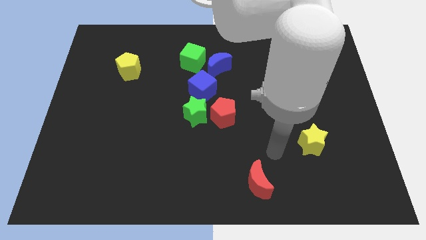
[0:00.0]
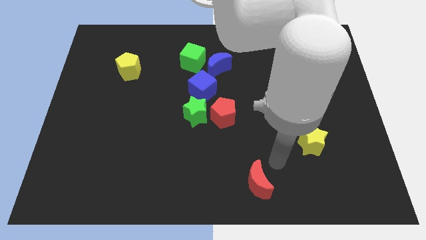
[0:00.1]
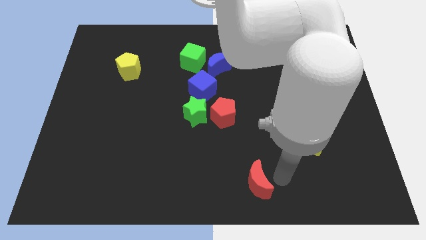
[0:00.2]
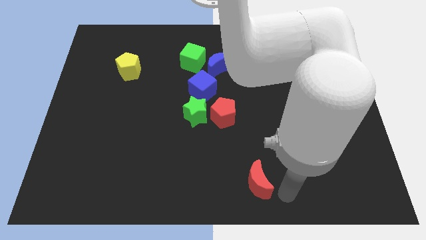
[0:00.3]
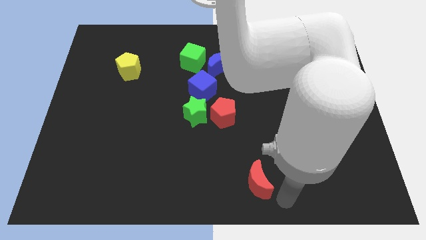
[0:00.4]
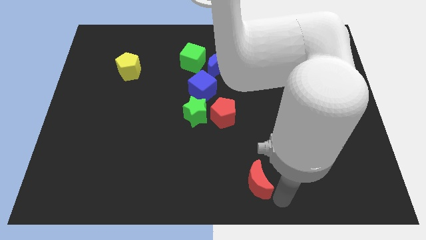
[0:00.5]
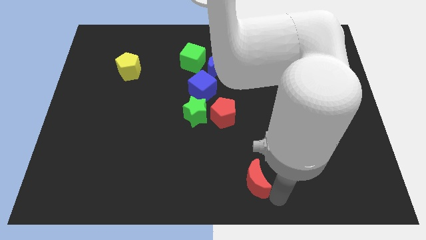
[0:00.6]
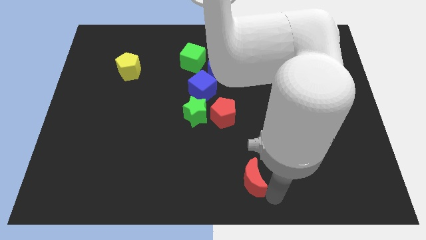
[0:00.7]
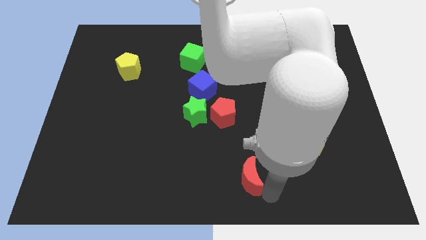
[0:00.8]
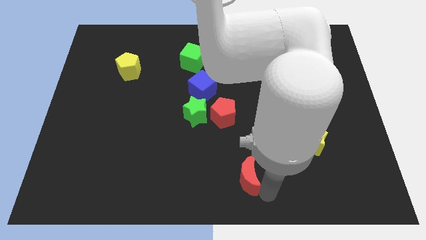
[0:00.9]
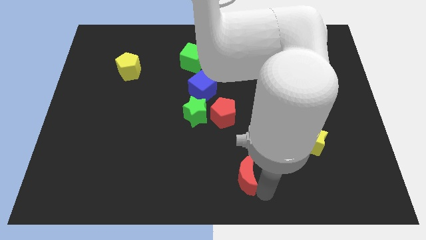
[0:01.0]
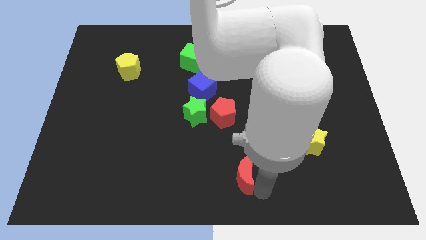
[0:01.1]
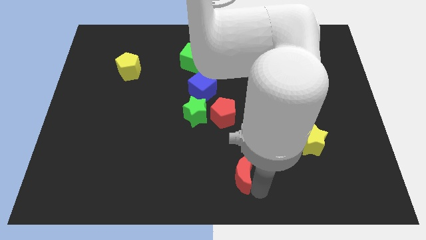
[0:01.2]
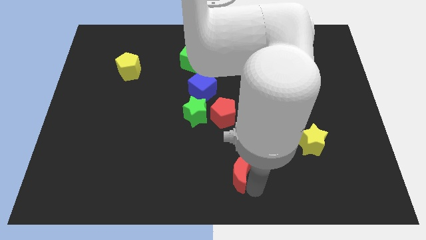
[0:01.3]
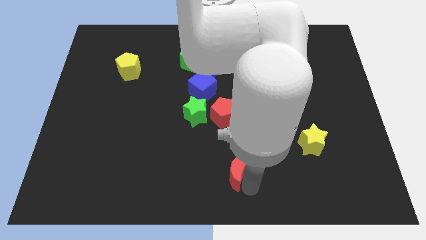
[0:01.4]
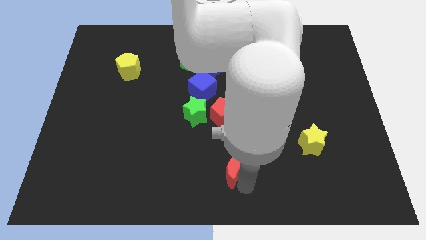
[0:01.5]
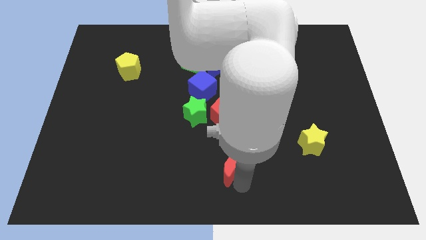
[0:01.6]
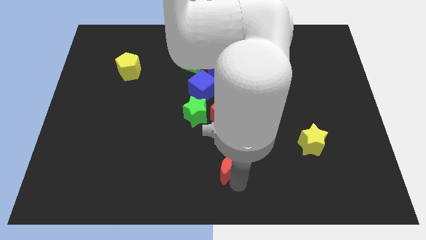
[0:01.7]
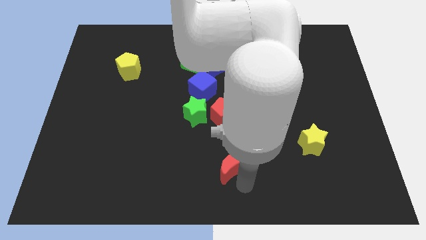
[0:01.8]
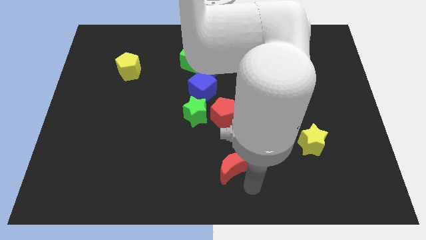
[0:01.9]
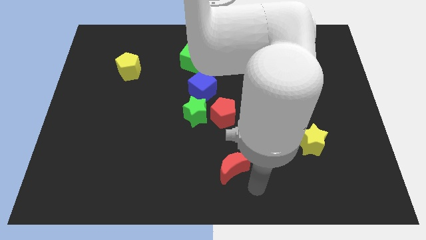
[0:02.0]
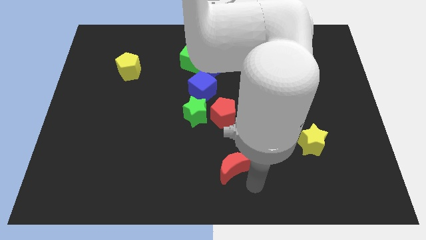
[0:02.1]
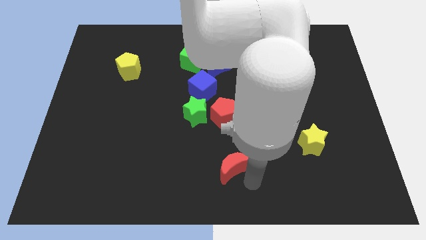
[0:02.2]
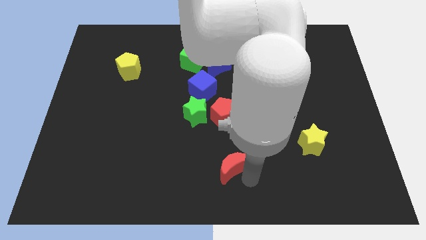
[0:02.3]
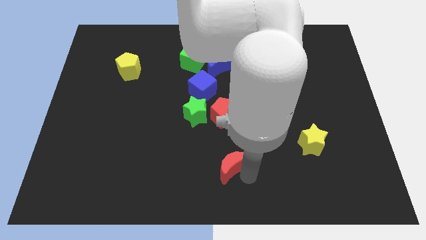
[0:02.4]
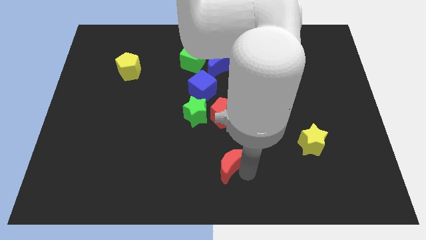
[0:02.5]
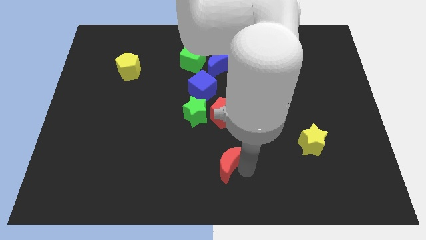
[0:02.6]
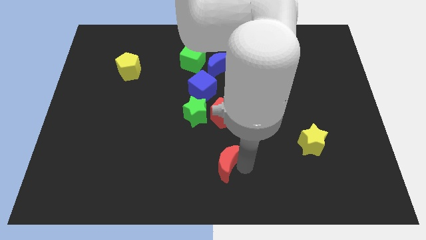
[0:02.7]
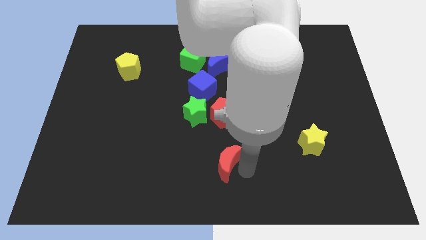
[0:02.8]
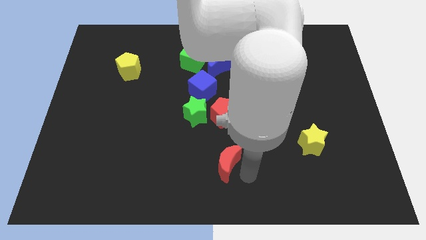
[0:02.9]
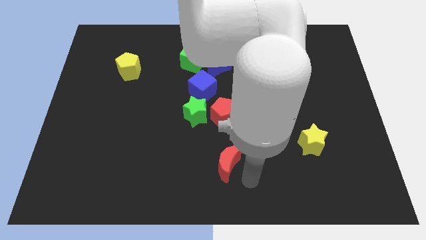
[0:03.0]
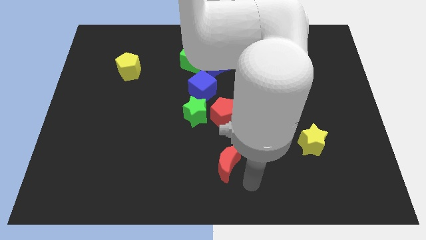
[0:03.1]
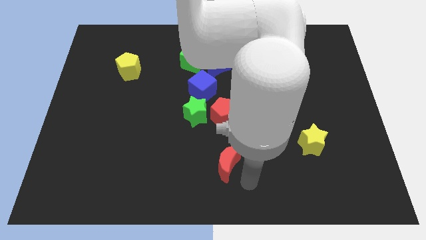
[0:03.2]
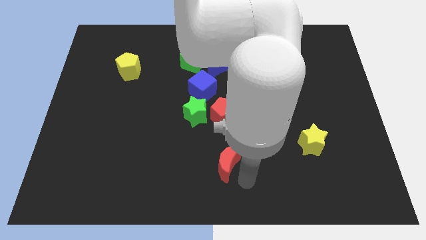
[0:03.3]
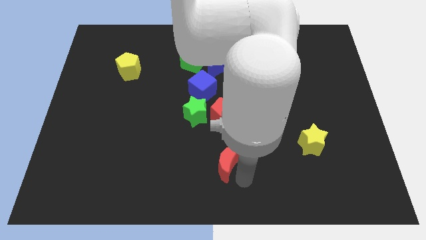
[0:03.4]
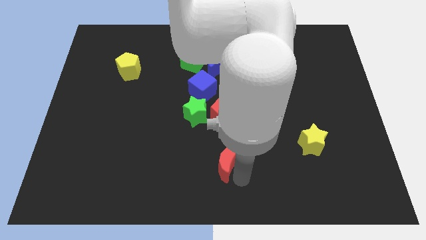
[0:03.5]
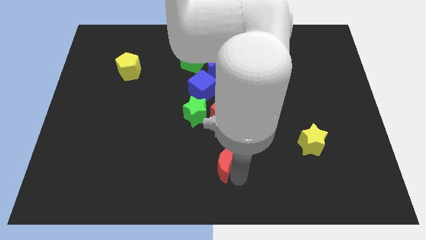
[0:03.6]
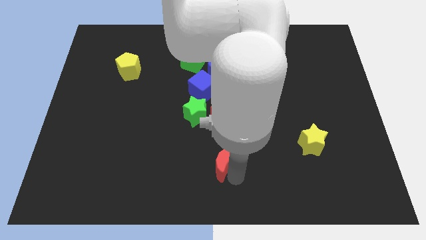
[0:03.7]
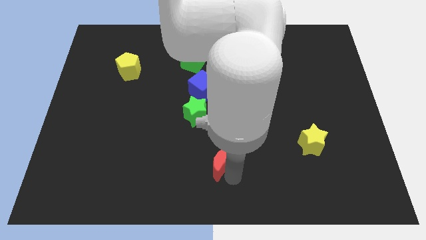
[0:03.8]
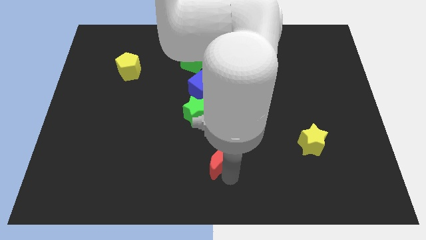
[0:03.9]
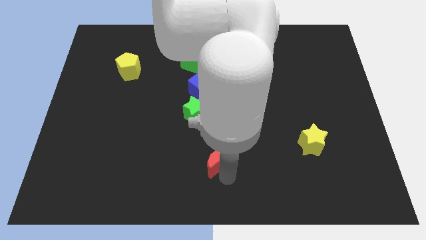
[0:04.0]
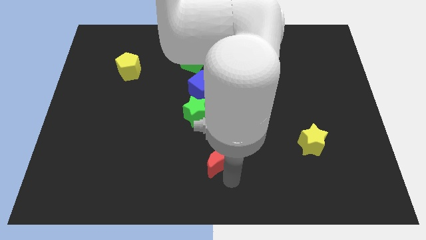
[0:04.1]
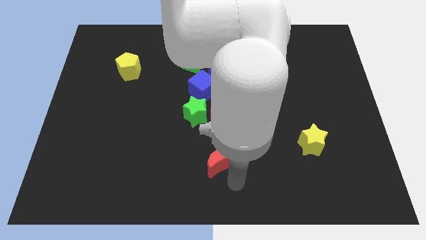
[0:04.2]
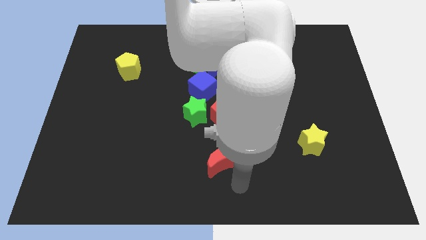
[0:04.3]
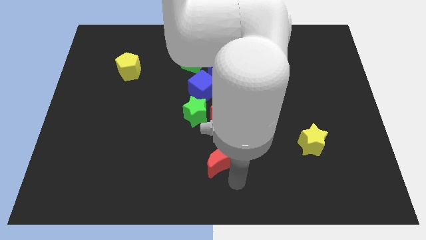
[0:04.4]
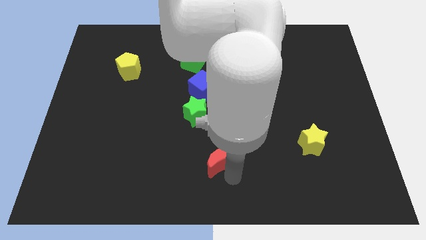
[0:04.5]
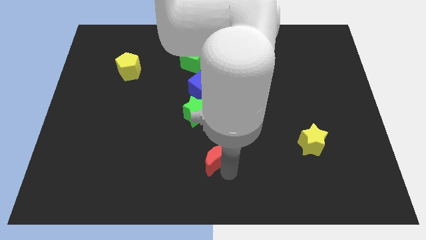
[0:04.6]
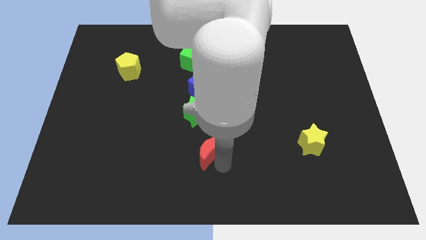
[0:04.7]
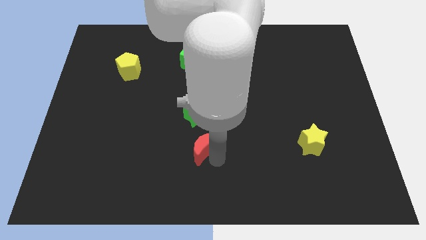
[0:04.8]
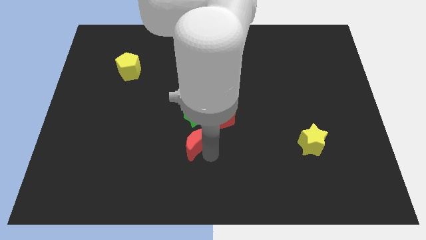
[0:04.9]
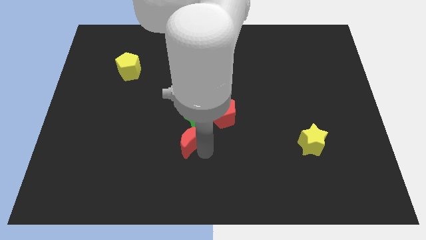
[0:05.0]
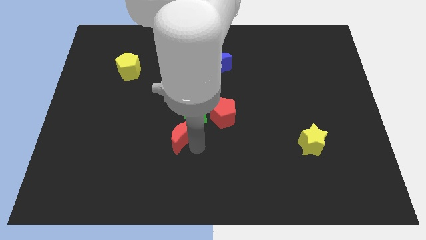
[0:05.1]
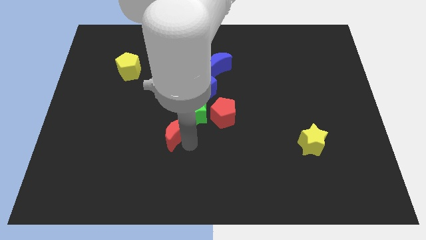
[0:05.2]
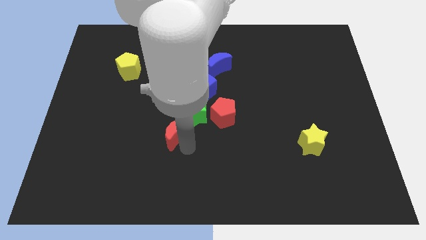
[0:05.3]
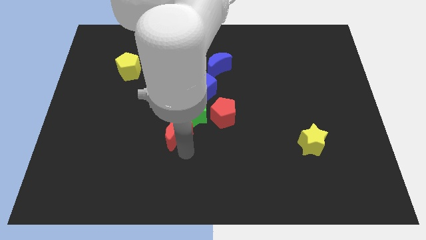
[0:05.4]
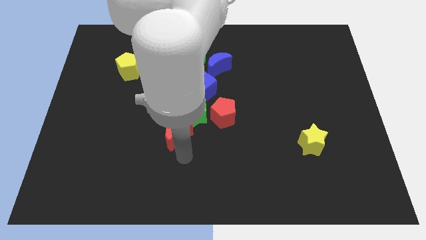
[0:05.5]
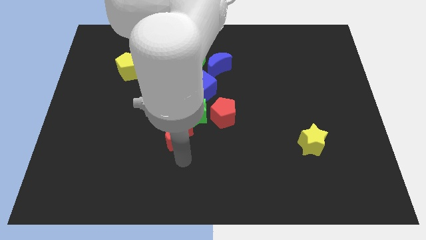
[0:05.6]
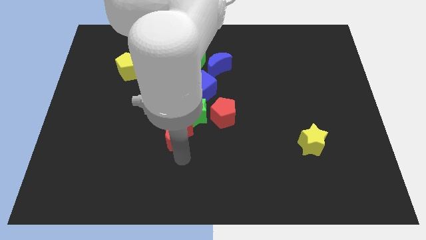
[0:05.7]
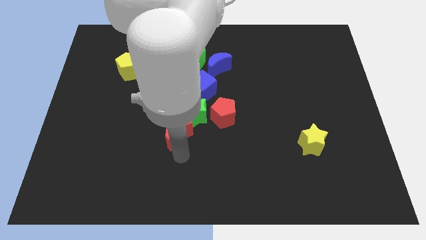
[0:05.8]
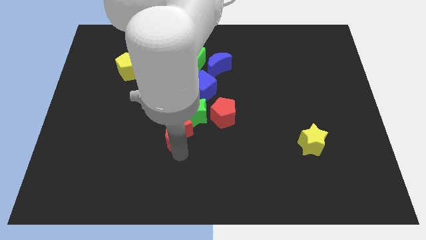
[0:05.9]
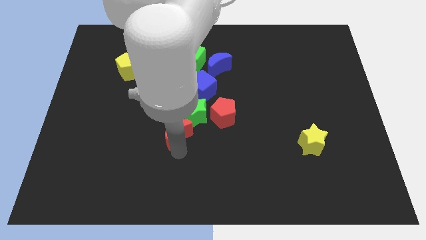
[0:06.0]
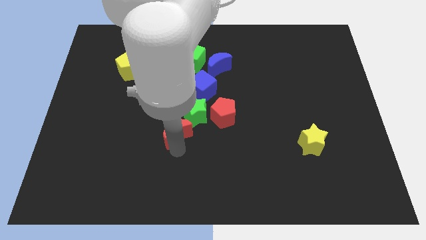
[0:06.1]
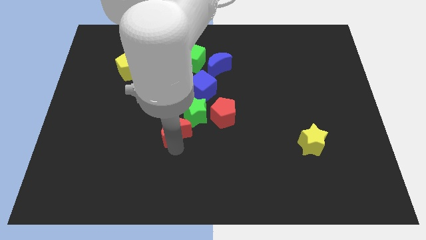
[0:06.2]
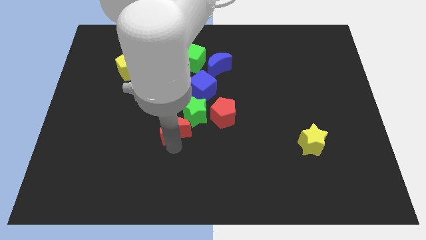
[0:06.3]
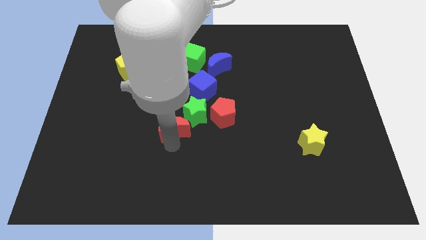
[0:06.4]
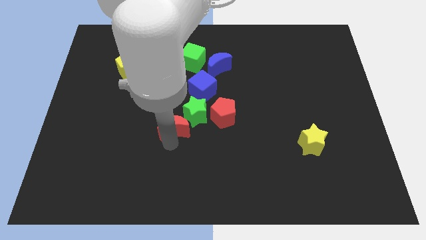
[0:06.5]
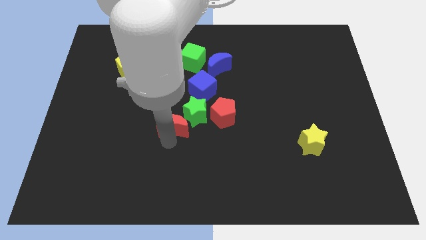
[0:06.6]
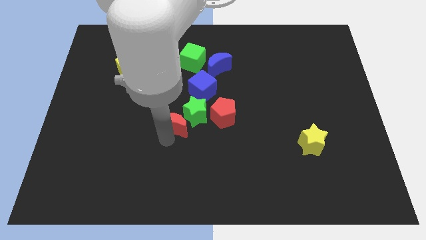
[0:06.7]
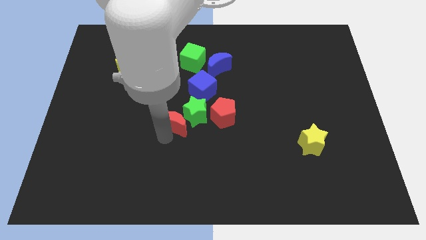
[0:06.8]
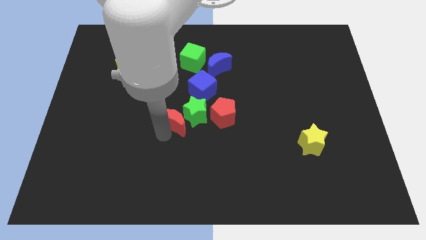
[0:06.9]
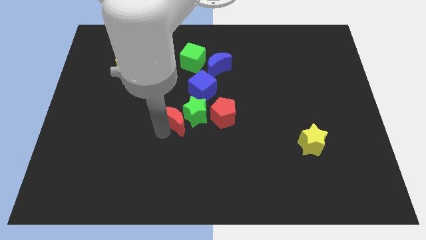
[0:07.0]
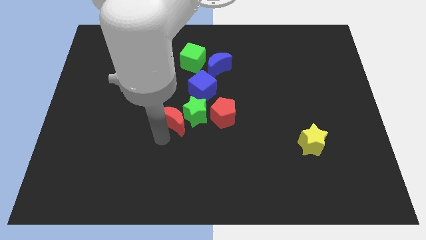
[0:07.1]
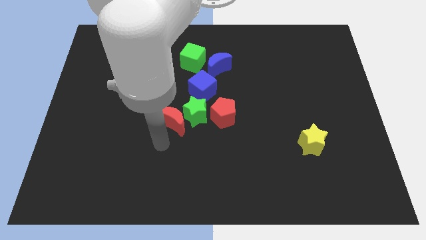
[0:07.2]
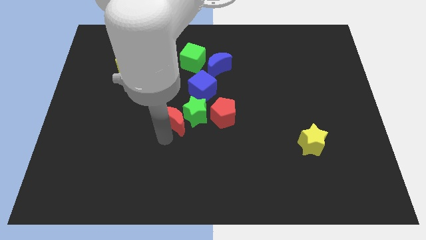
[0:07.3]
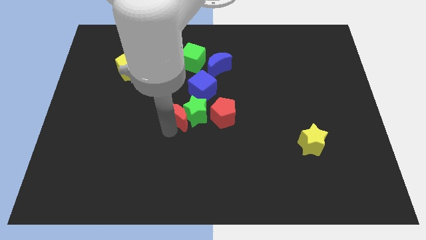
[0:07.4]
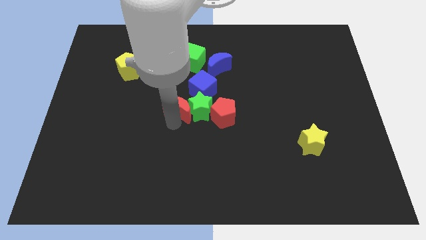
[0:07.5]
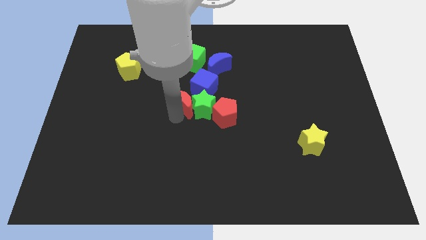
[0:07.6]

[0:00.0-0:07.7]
slide the red moon to the bottom side of the green cube
